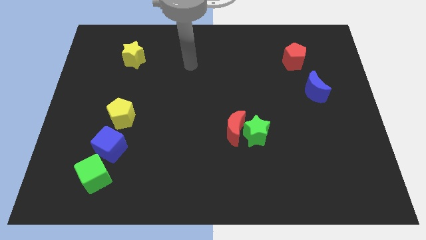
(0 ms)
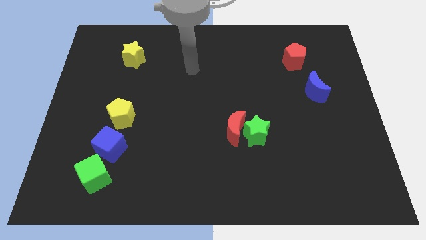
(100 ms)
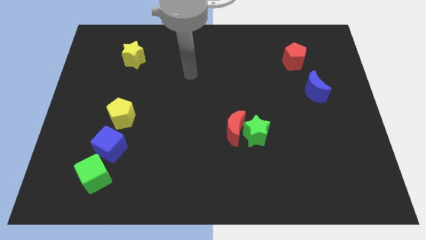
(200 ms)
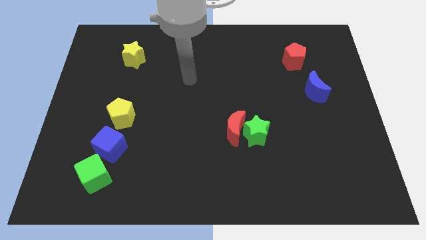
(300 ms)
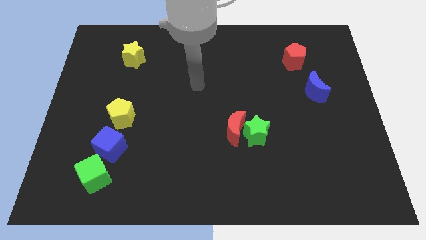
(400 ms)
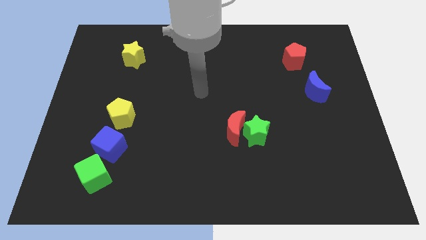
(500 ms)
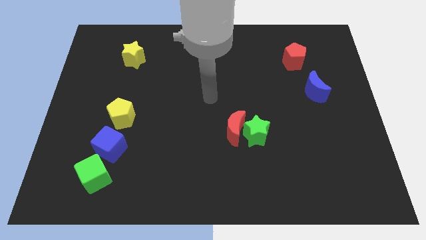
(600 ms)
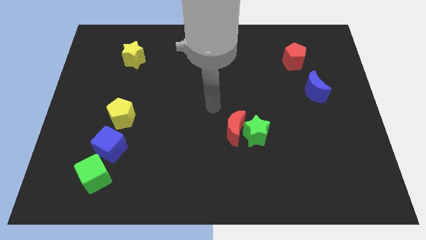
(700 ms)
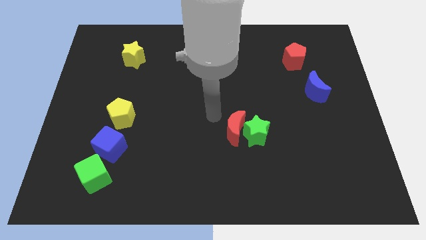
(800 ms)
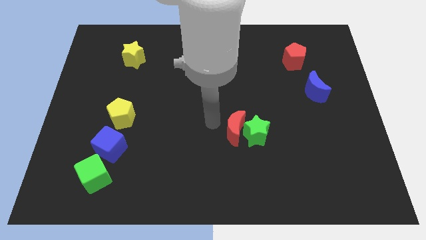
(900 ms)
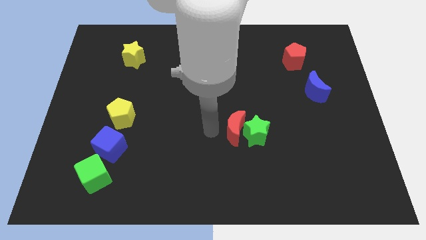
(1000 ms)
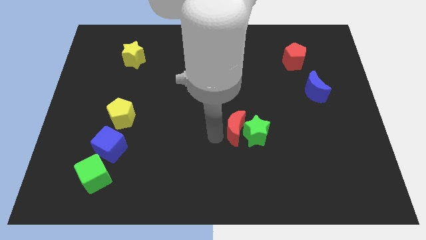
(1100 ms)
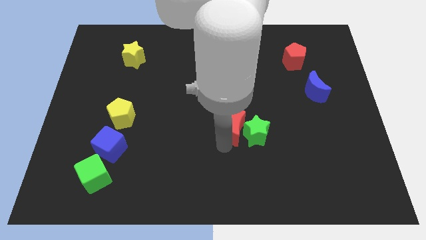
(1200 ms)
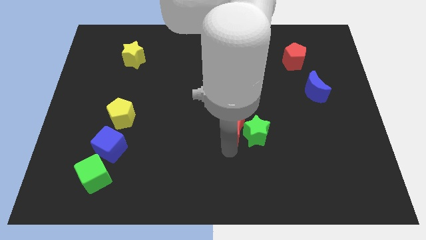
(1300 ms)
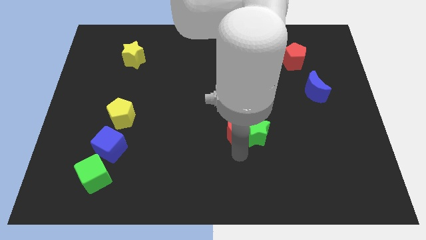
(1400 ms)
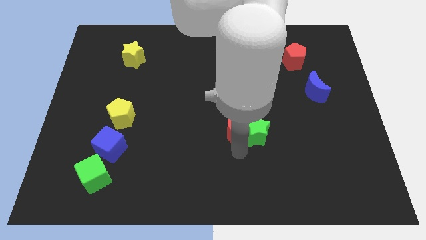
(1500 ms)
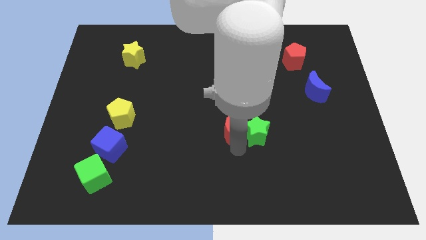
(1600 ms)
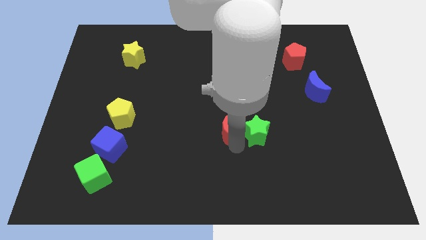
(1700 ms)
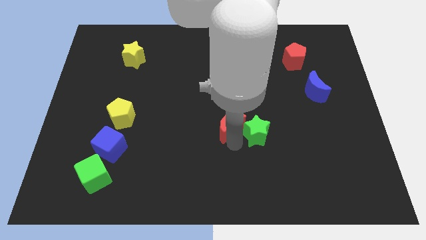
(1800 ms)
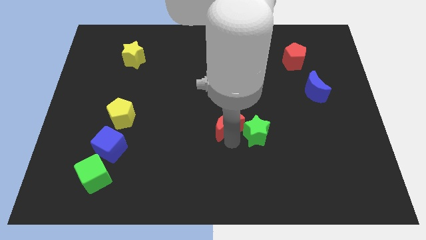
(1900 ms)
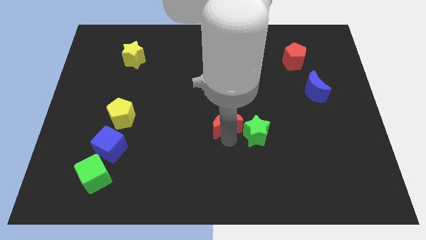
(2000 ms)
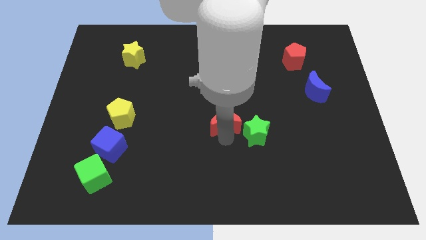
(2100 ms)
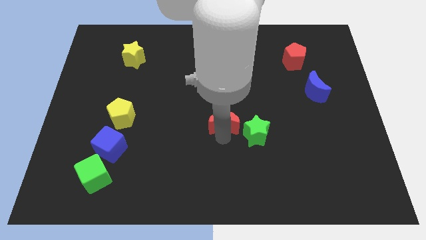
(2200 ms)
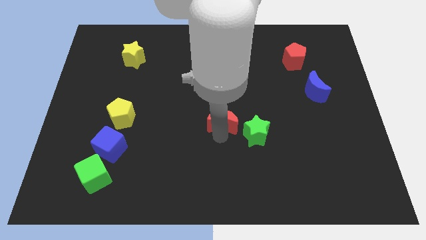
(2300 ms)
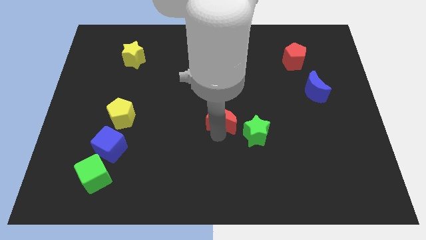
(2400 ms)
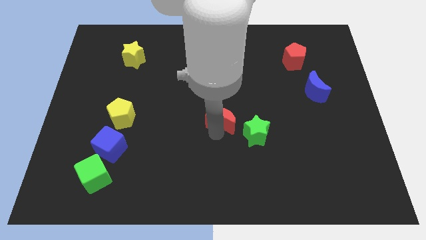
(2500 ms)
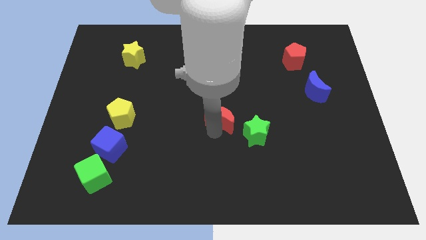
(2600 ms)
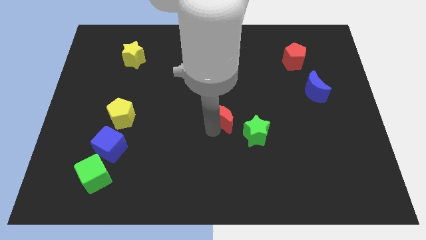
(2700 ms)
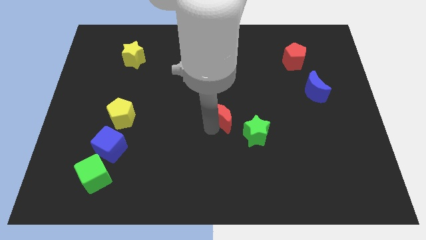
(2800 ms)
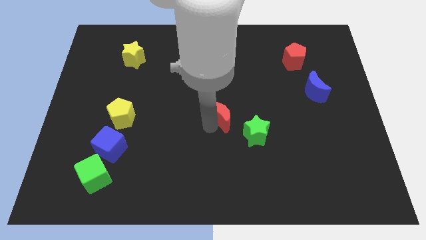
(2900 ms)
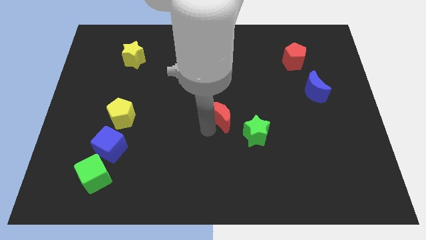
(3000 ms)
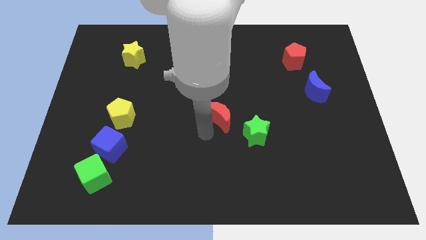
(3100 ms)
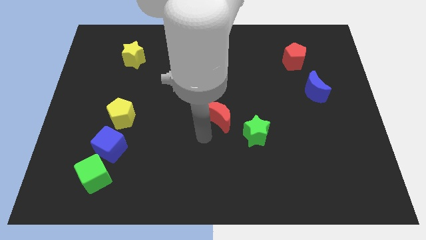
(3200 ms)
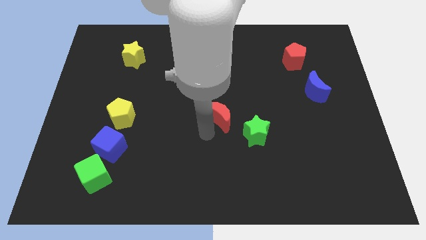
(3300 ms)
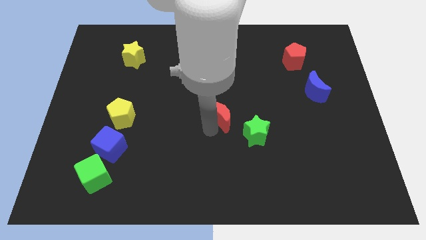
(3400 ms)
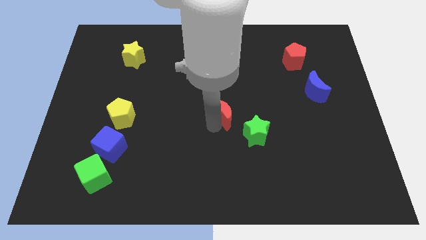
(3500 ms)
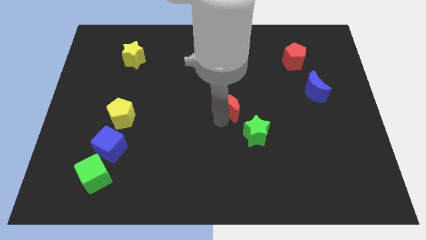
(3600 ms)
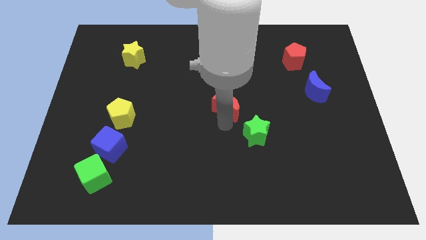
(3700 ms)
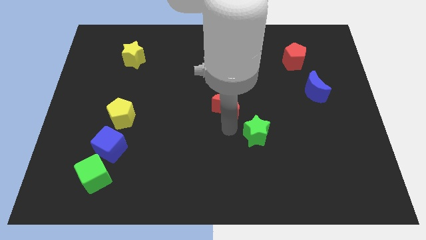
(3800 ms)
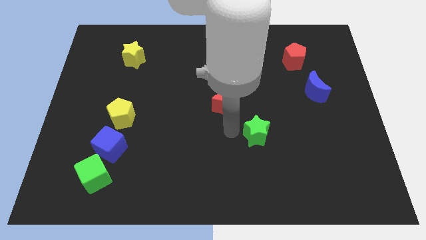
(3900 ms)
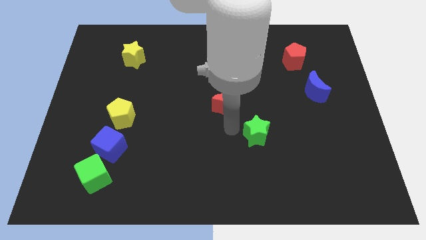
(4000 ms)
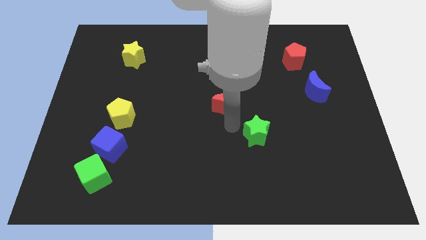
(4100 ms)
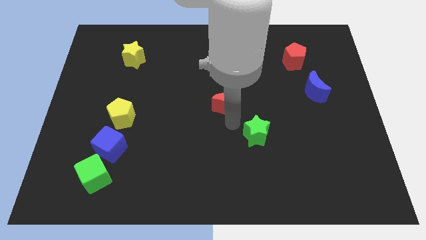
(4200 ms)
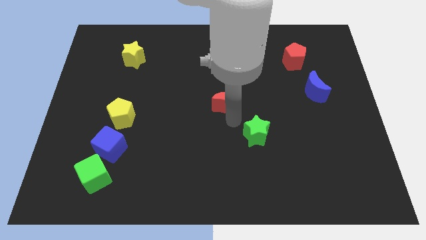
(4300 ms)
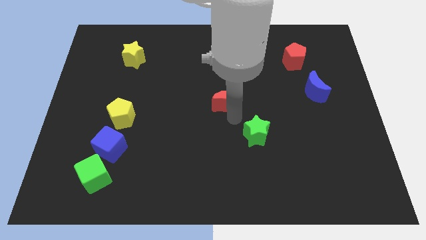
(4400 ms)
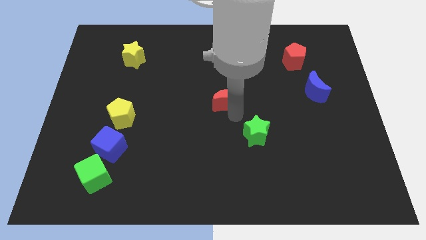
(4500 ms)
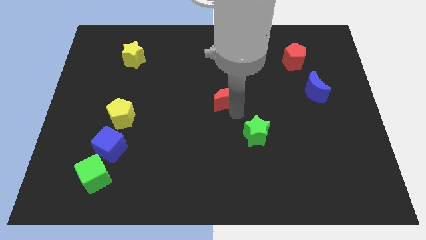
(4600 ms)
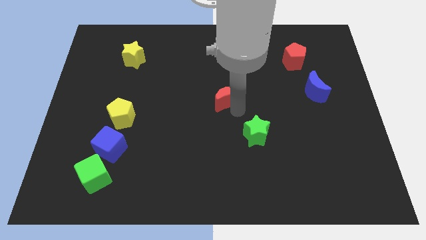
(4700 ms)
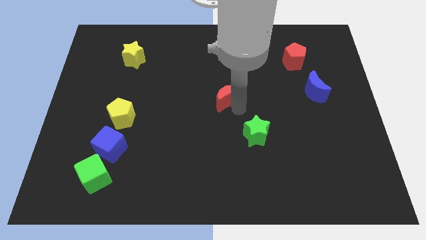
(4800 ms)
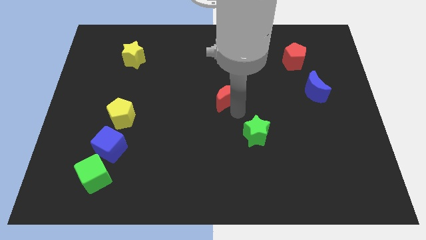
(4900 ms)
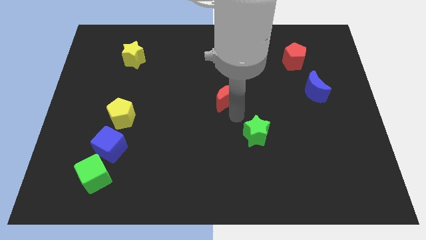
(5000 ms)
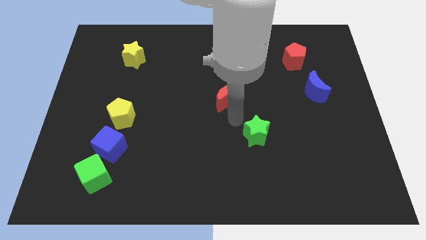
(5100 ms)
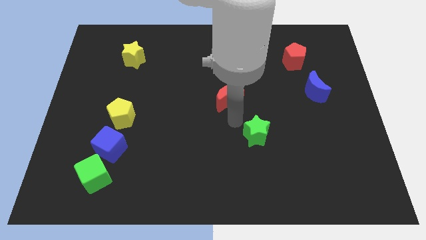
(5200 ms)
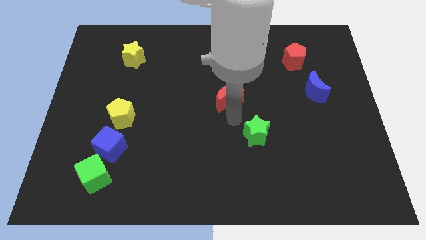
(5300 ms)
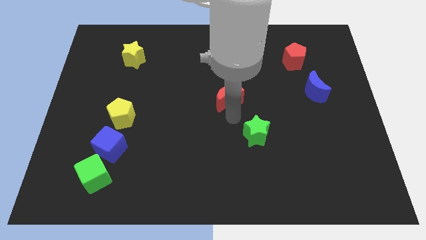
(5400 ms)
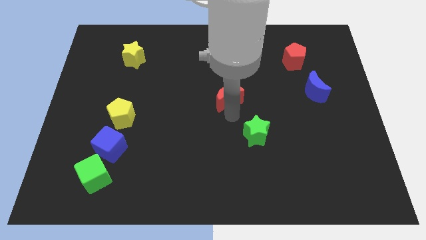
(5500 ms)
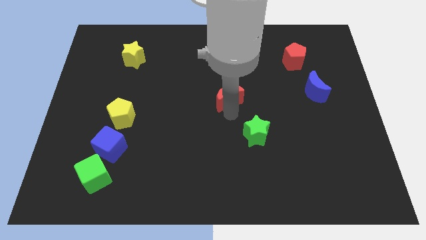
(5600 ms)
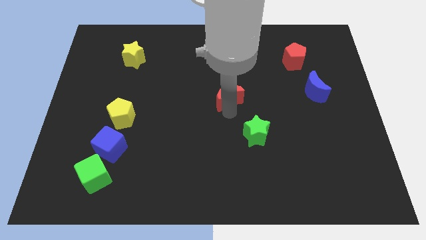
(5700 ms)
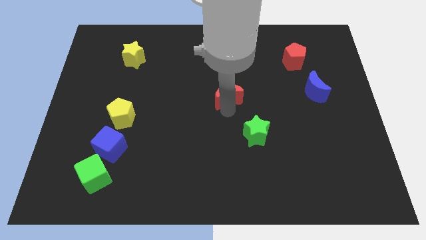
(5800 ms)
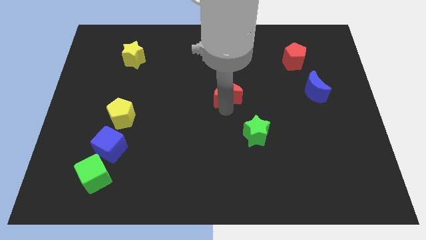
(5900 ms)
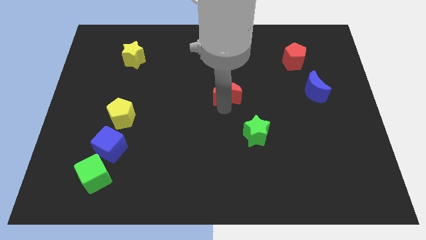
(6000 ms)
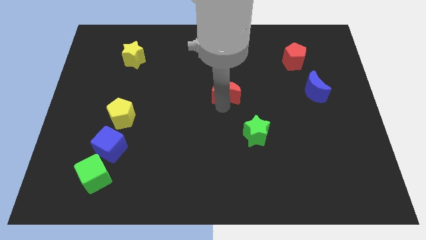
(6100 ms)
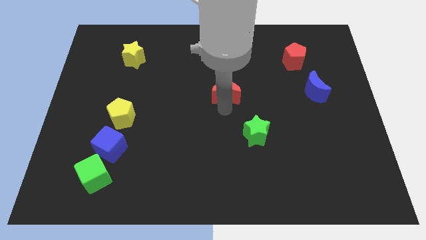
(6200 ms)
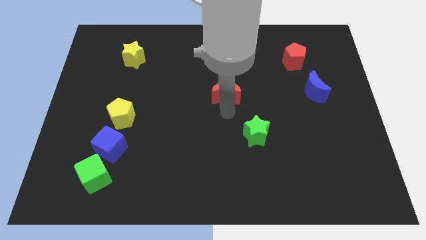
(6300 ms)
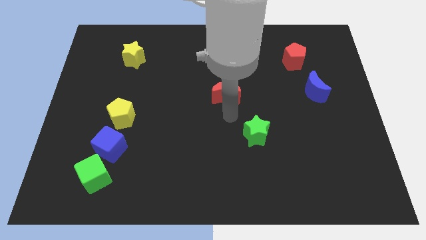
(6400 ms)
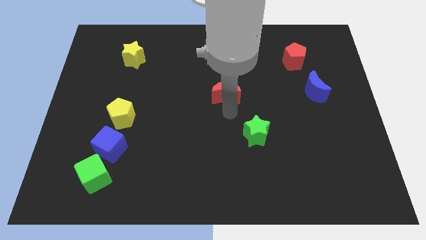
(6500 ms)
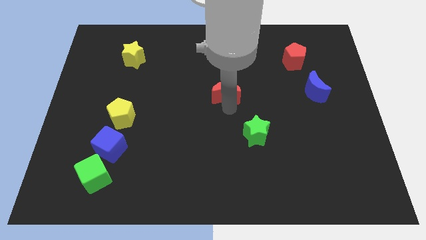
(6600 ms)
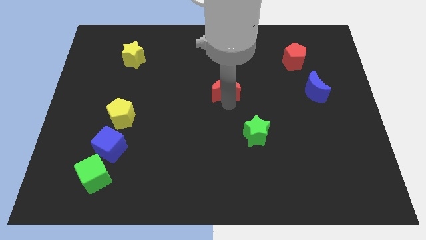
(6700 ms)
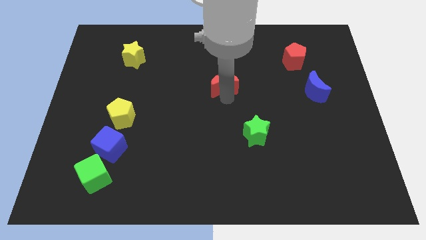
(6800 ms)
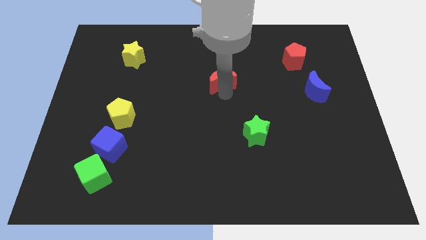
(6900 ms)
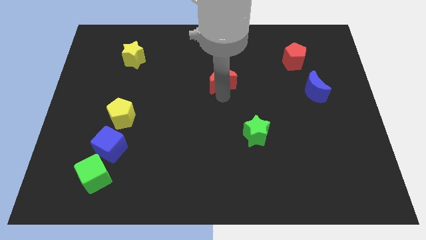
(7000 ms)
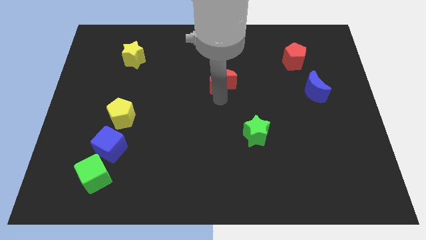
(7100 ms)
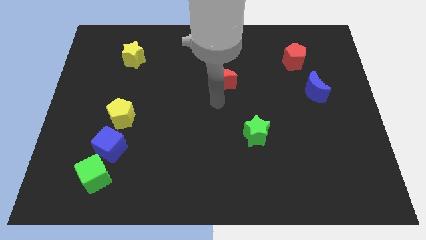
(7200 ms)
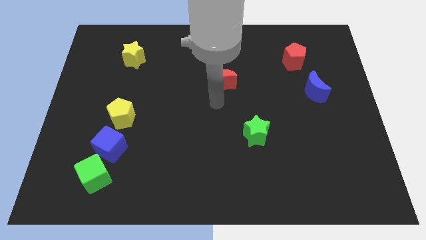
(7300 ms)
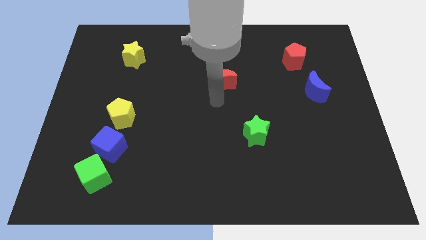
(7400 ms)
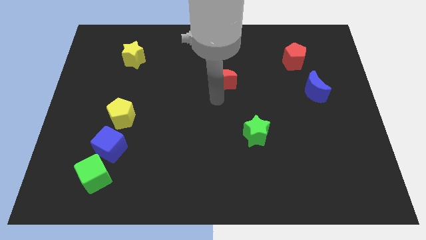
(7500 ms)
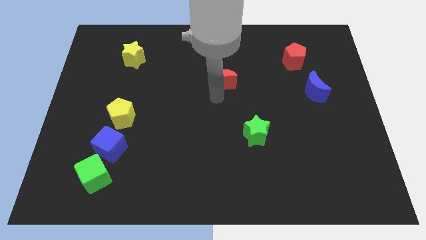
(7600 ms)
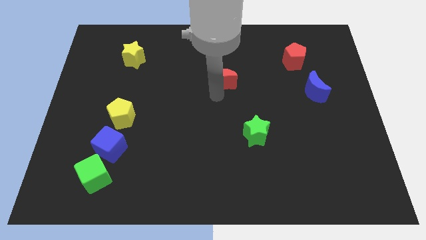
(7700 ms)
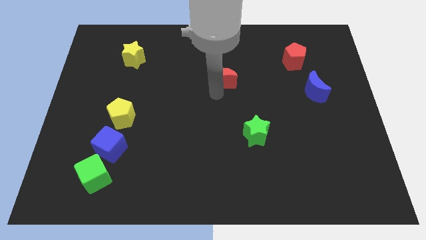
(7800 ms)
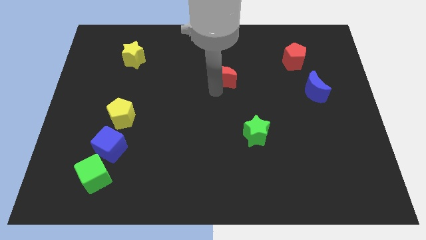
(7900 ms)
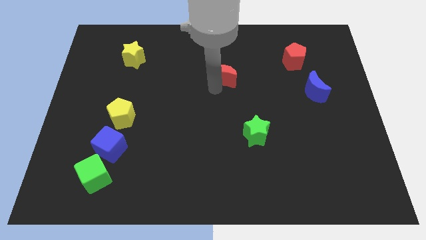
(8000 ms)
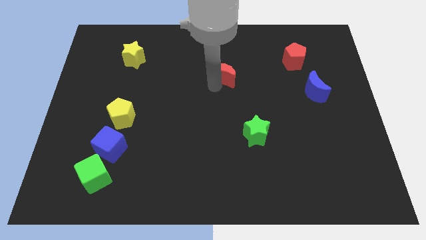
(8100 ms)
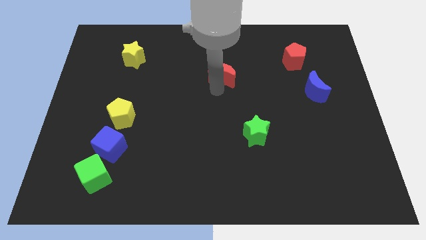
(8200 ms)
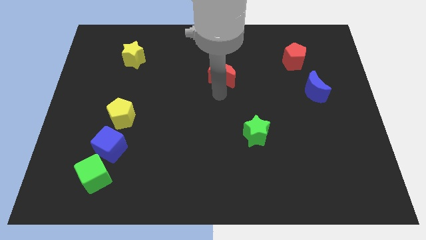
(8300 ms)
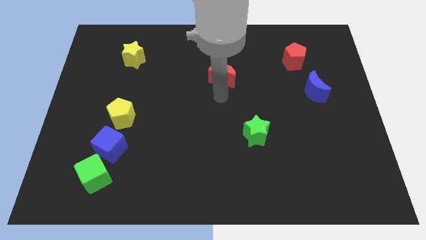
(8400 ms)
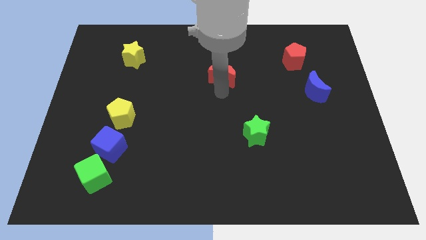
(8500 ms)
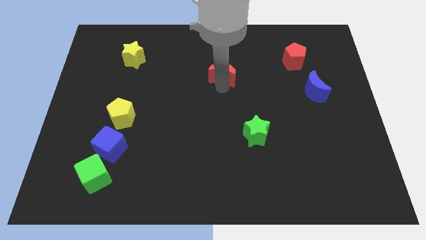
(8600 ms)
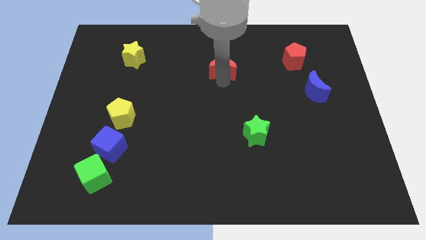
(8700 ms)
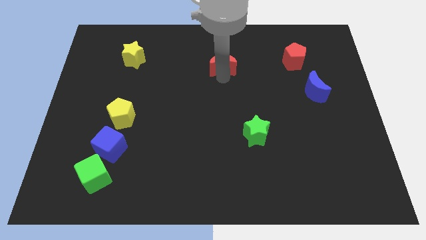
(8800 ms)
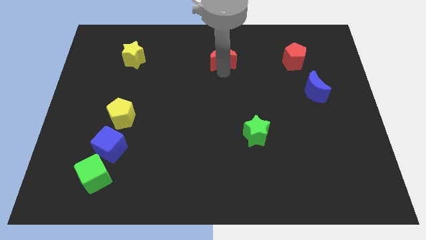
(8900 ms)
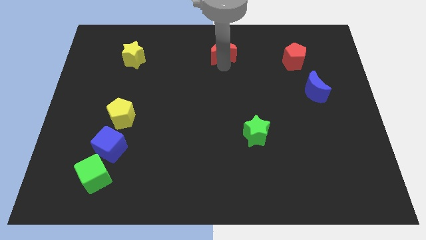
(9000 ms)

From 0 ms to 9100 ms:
move the red moon to the towards your base
